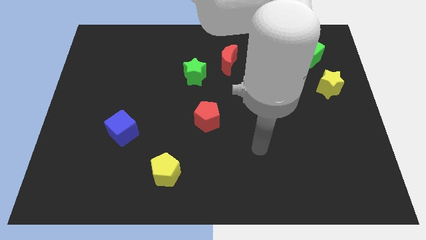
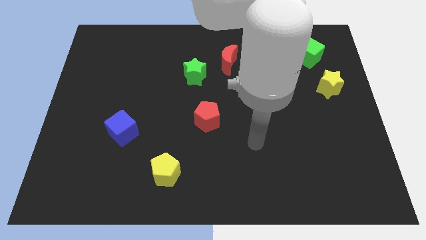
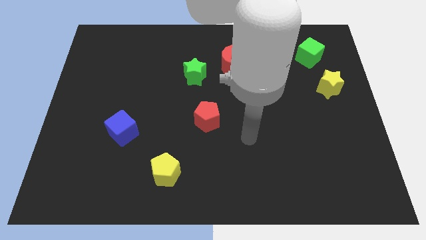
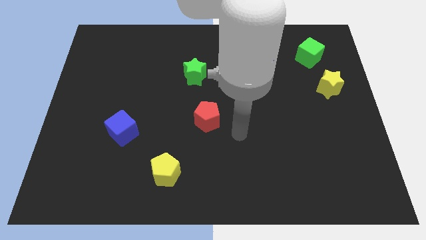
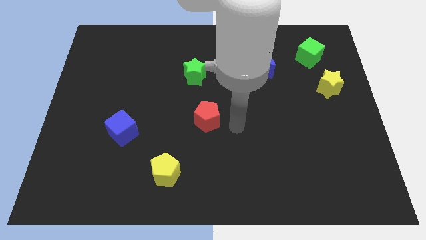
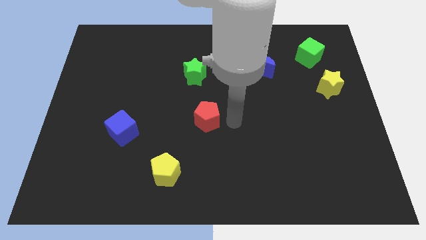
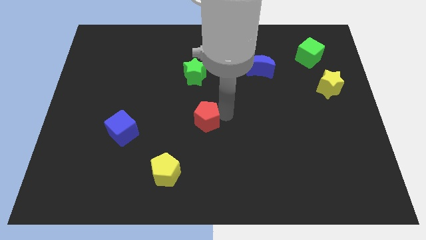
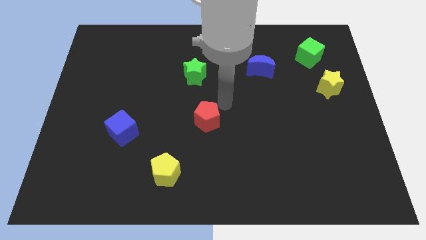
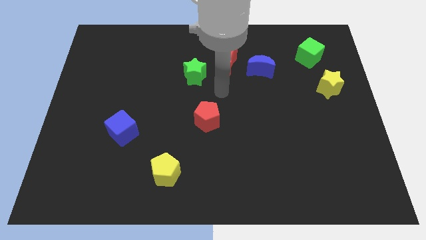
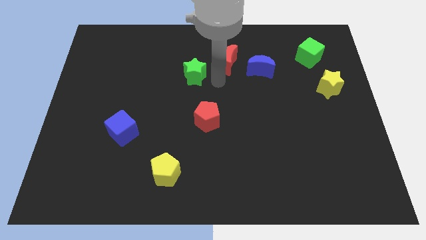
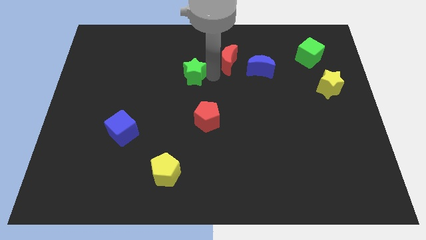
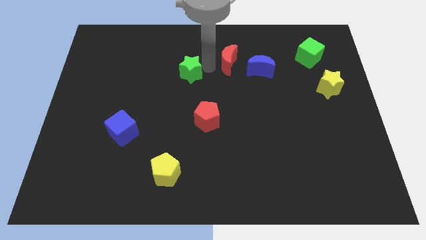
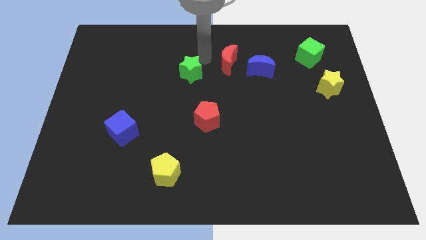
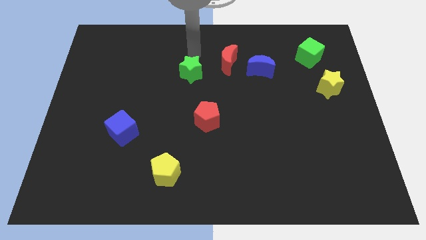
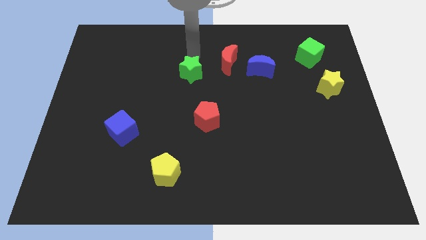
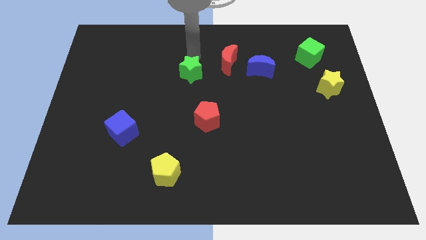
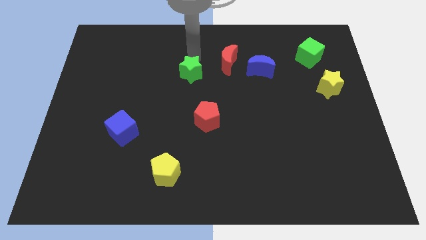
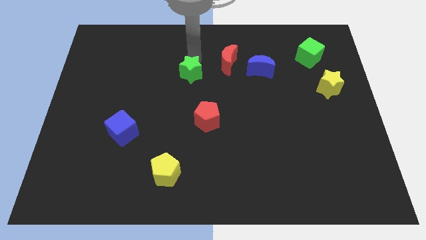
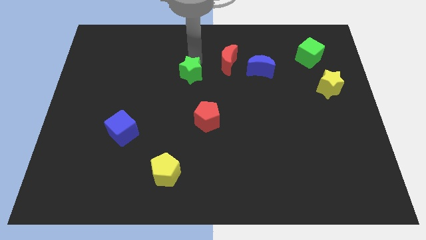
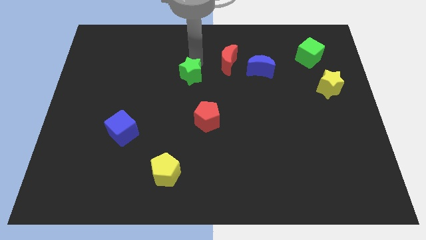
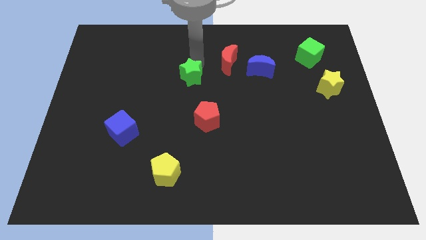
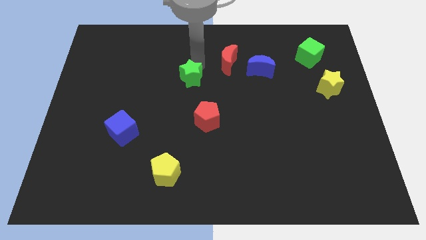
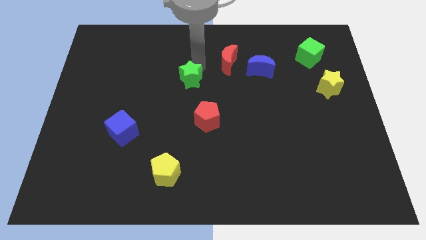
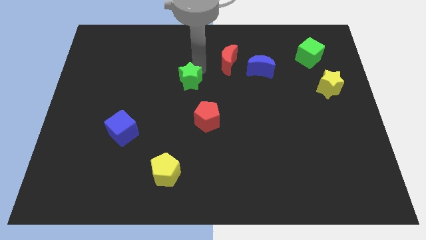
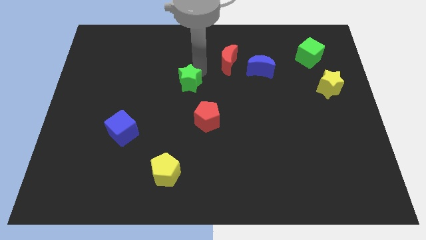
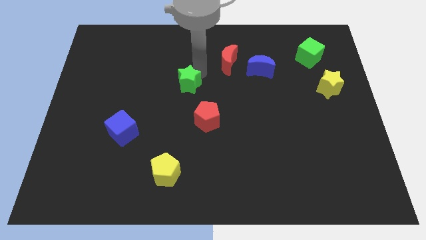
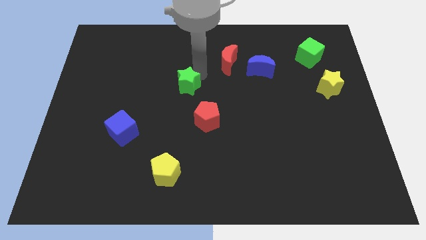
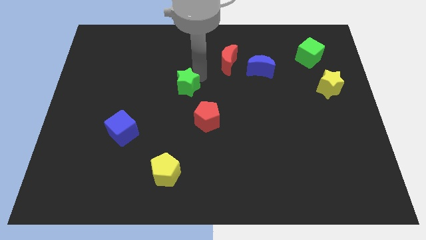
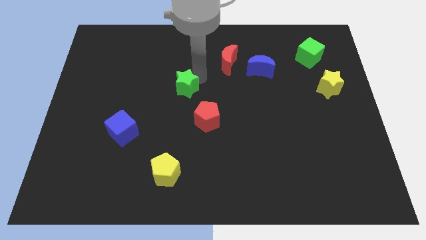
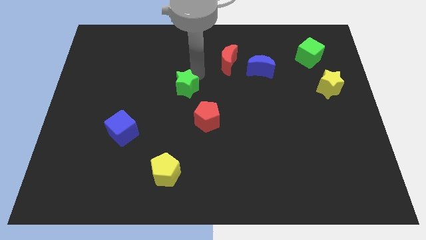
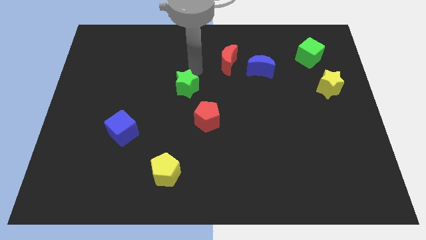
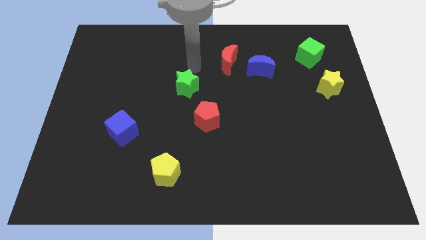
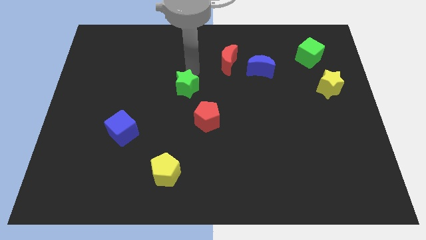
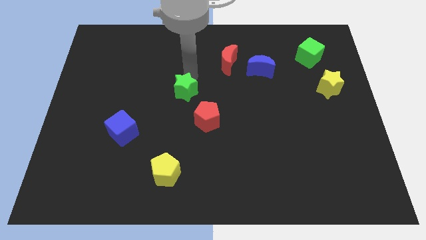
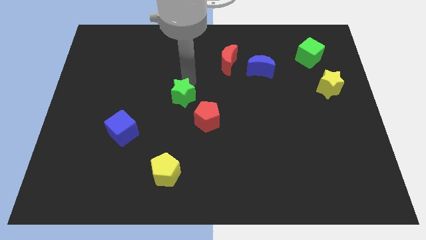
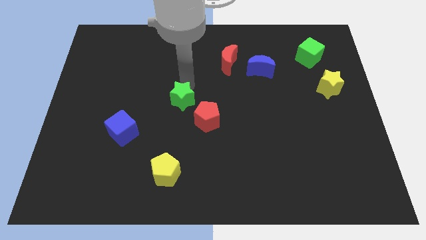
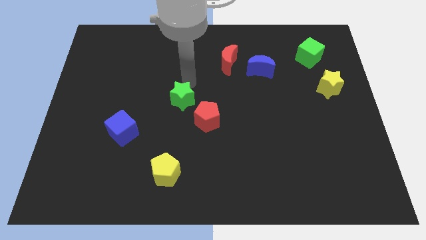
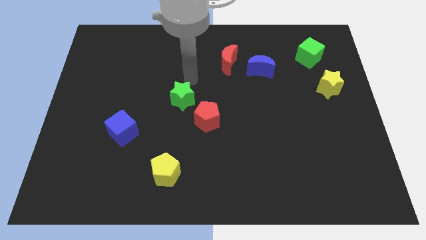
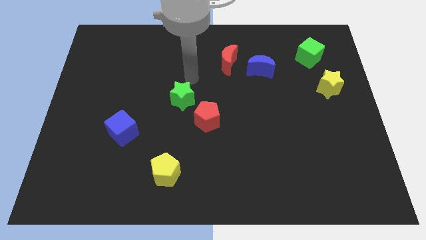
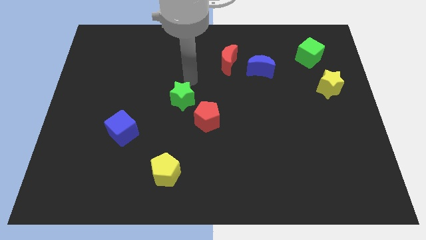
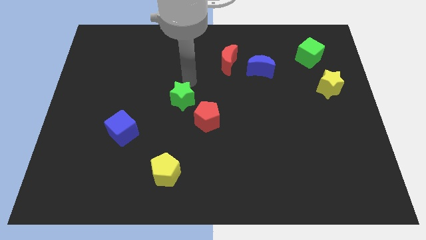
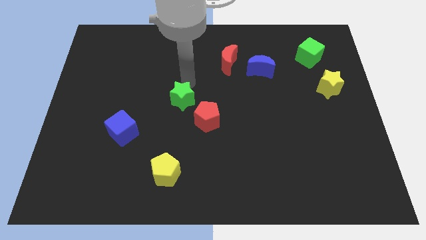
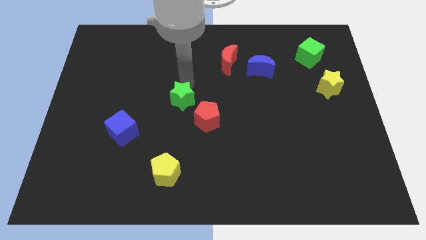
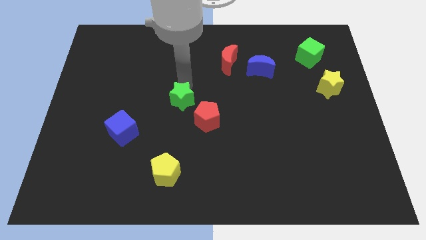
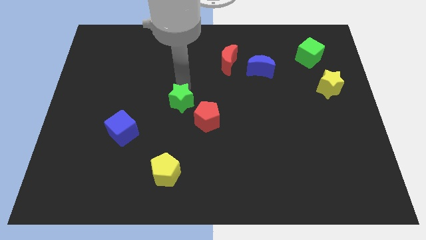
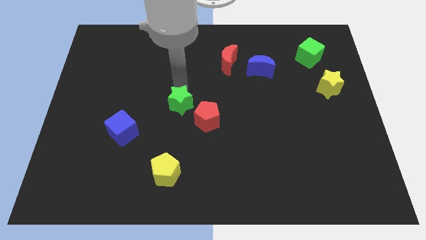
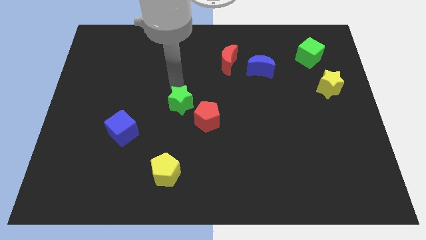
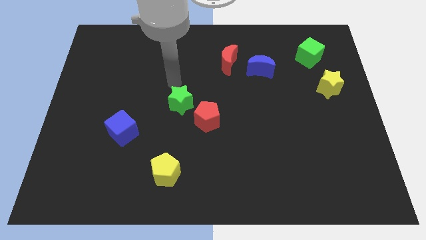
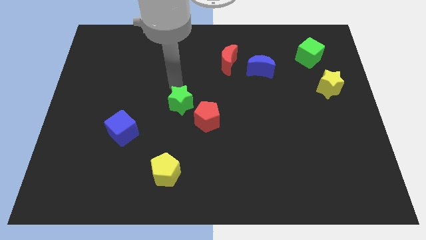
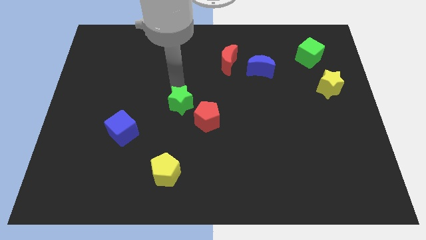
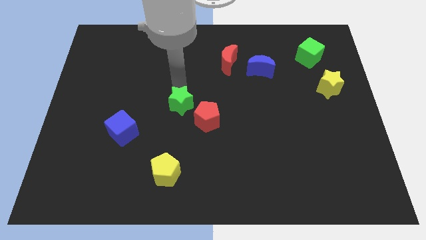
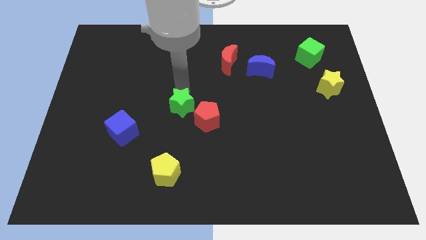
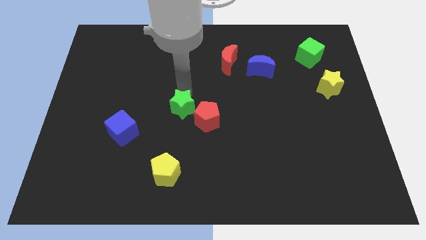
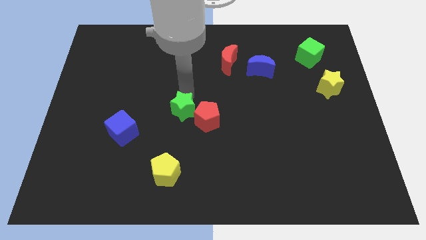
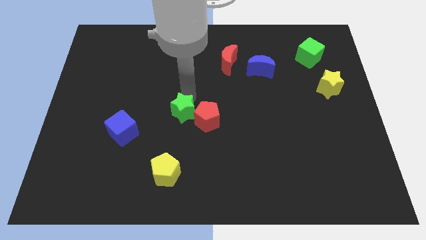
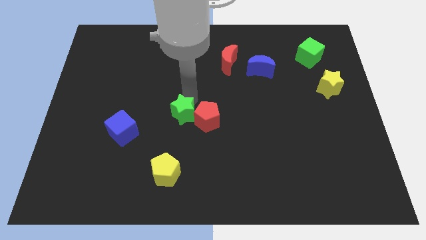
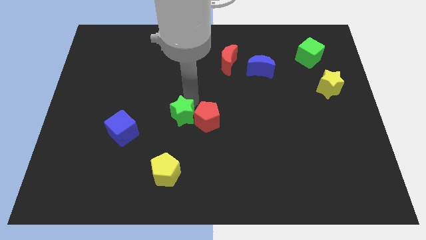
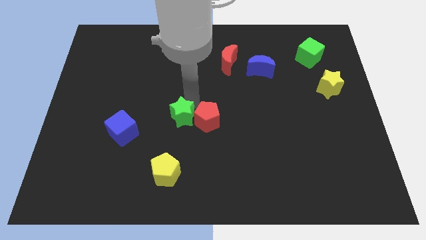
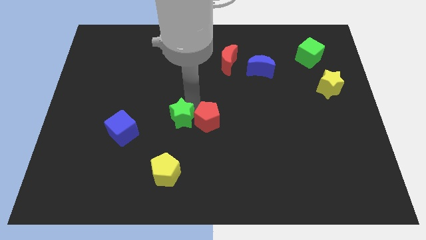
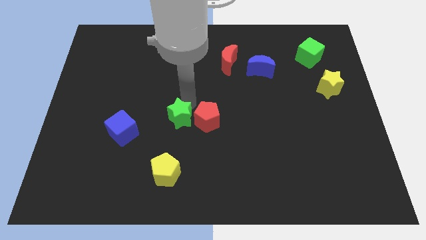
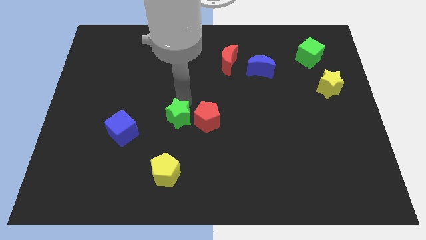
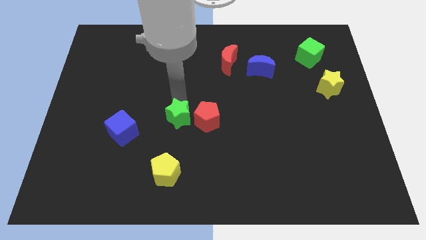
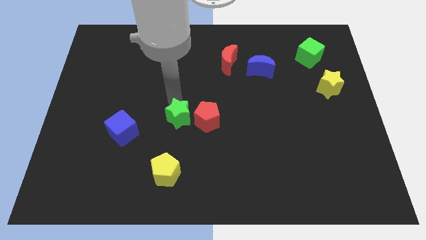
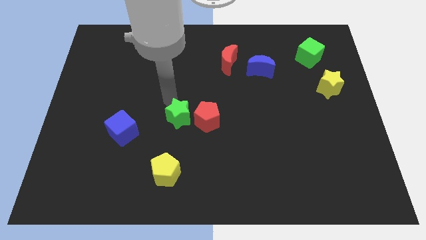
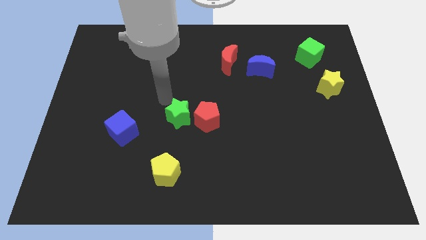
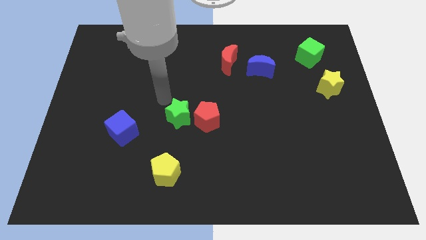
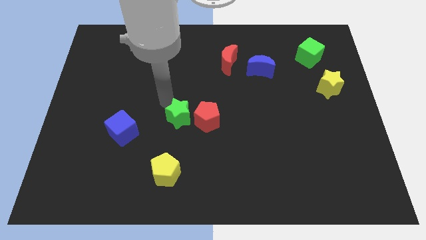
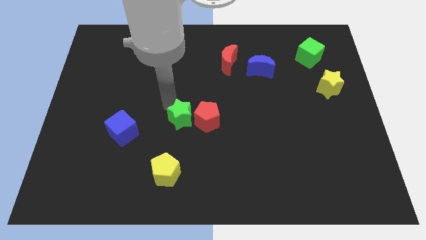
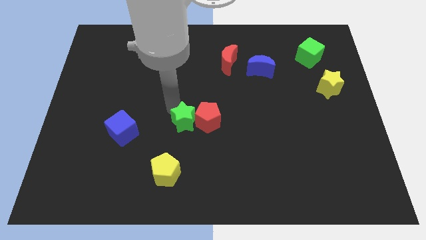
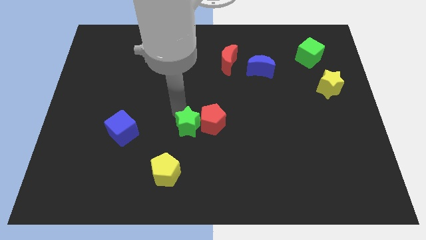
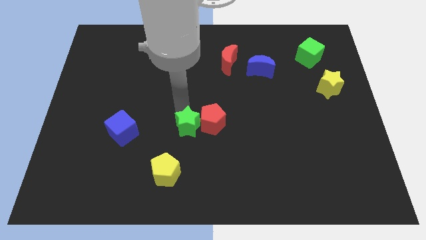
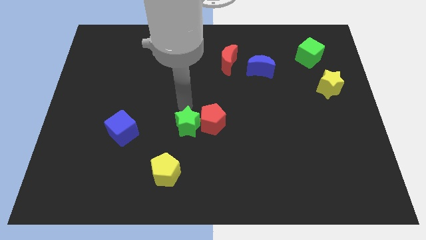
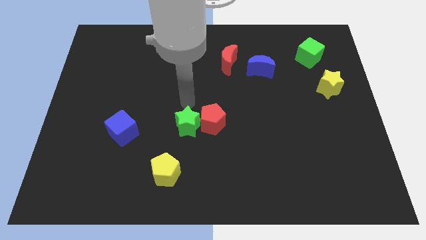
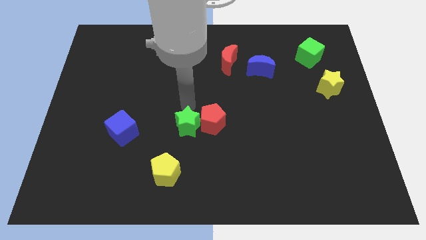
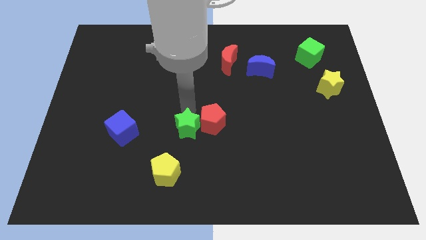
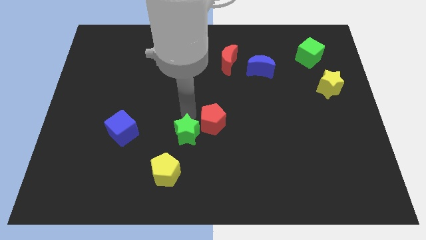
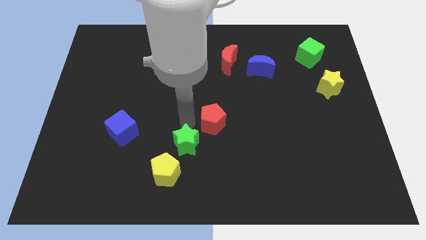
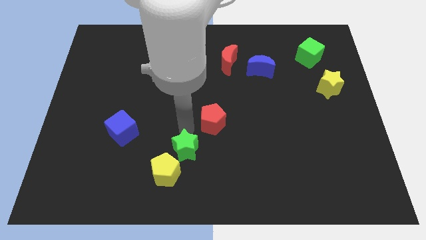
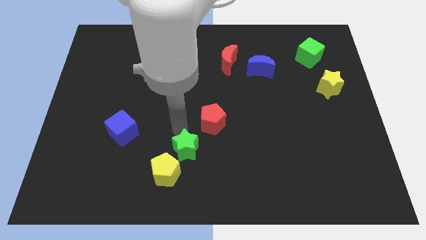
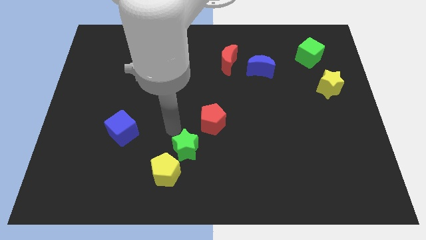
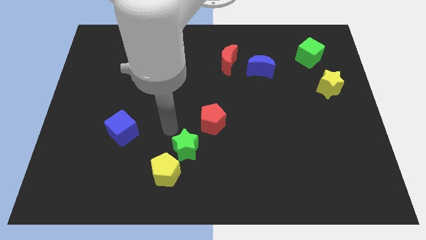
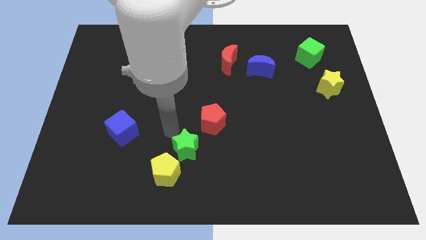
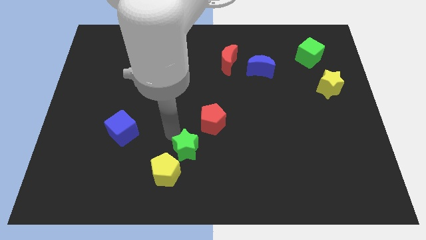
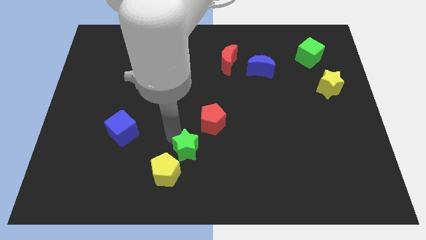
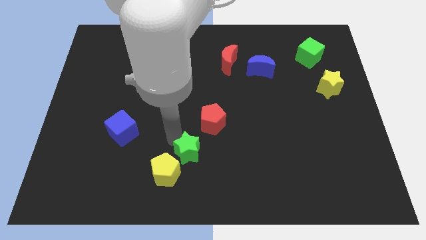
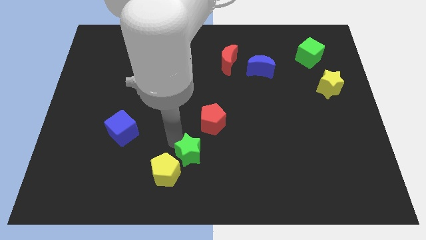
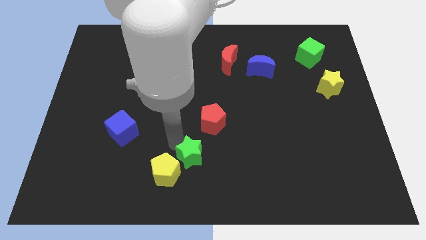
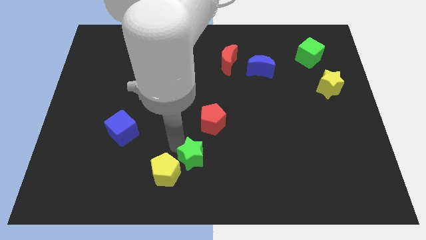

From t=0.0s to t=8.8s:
push the green star to the bottom
